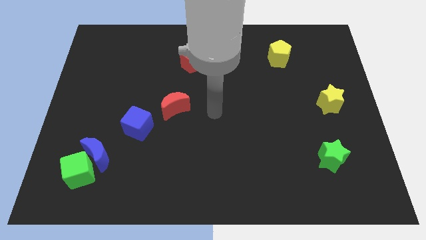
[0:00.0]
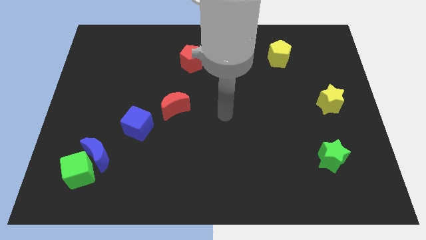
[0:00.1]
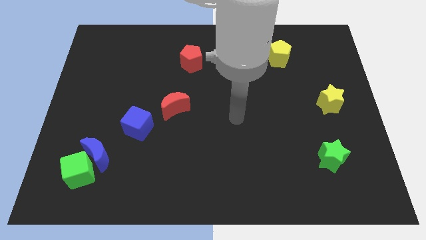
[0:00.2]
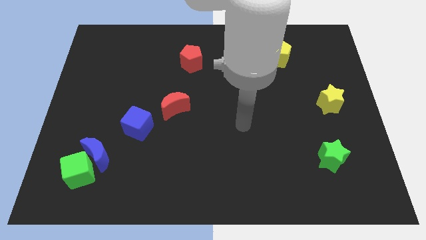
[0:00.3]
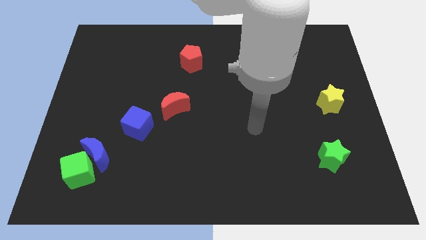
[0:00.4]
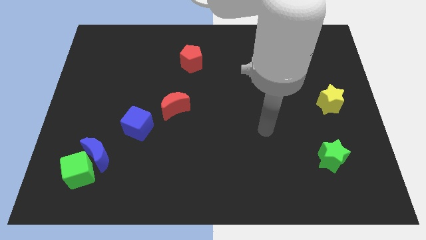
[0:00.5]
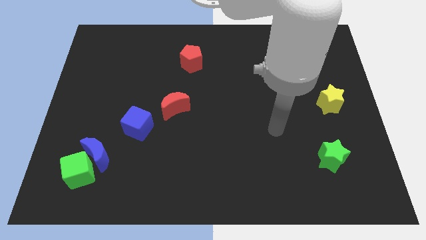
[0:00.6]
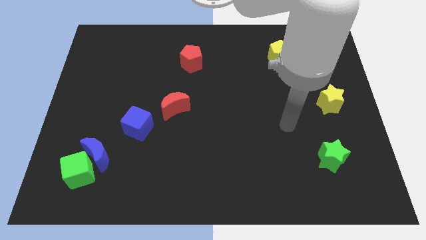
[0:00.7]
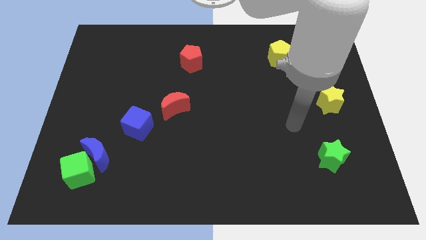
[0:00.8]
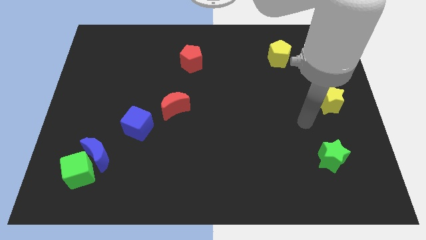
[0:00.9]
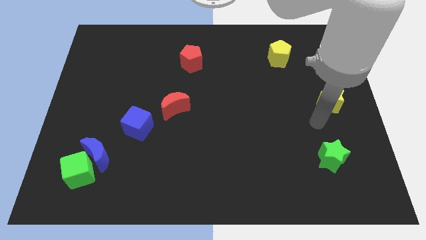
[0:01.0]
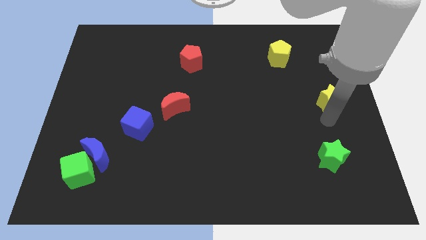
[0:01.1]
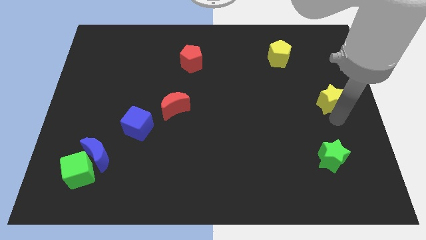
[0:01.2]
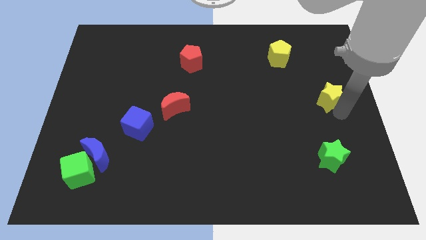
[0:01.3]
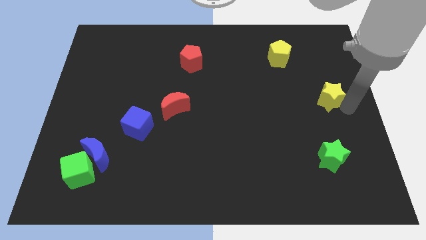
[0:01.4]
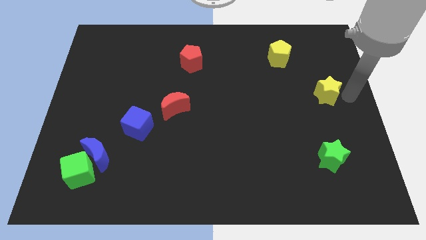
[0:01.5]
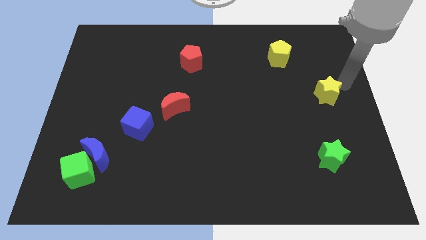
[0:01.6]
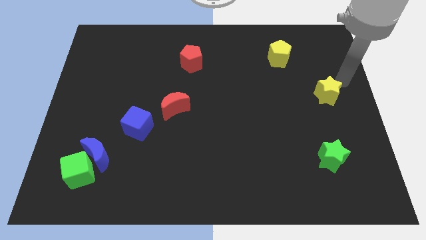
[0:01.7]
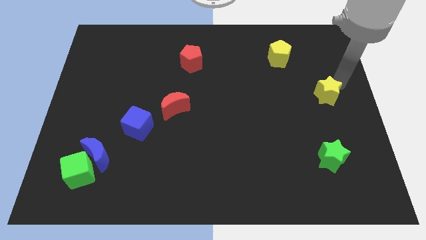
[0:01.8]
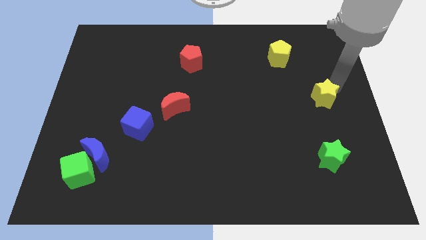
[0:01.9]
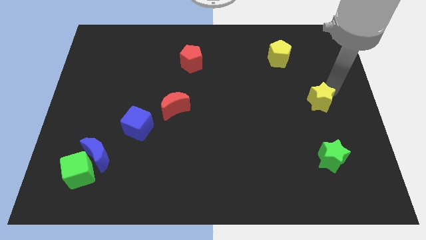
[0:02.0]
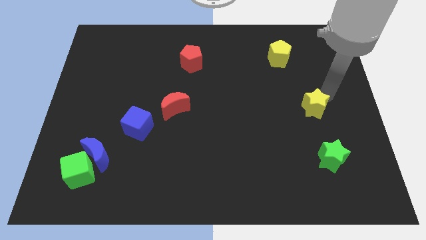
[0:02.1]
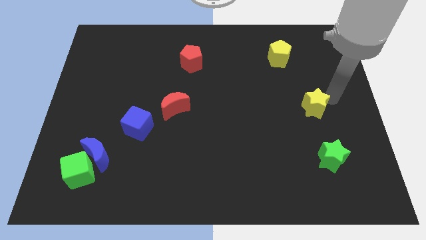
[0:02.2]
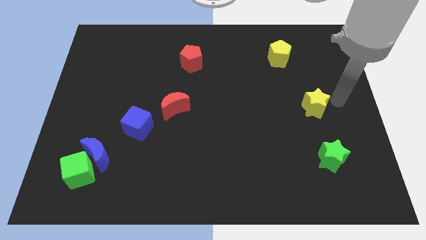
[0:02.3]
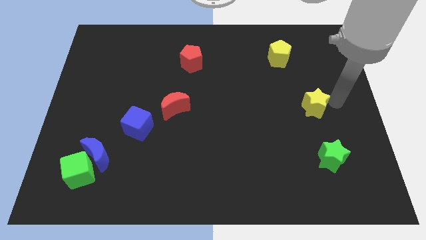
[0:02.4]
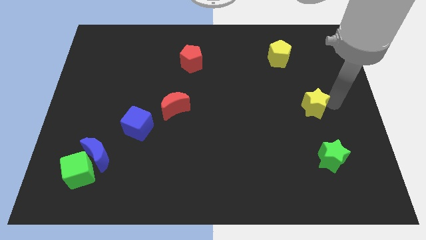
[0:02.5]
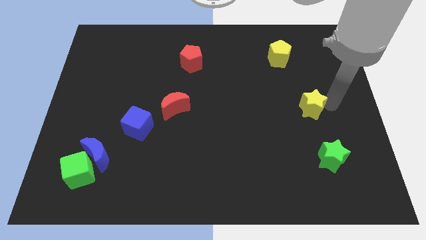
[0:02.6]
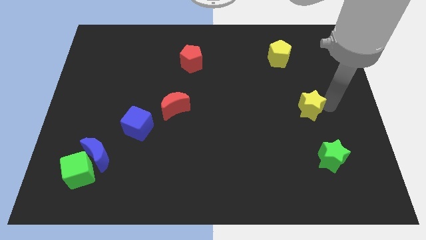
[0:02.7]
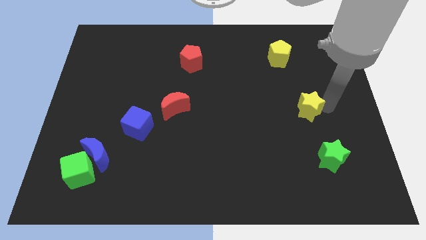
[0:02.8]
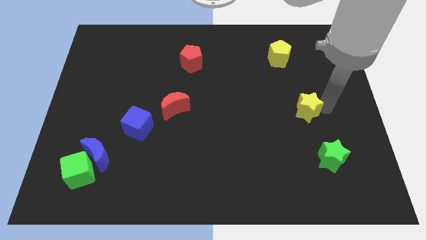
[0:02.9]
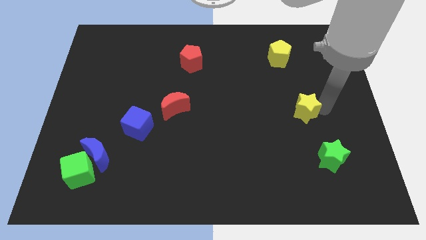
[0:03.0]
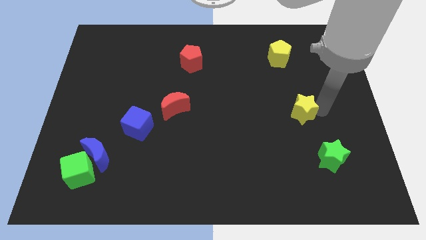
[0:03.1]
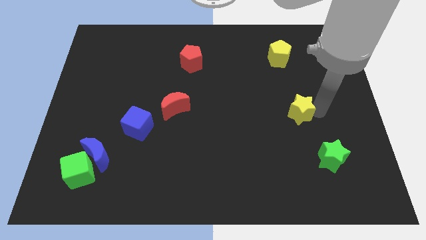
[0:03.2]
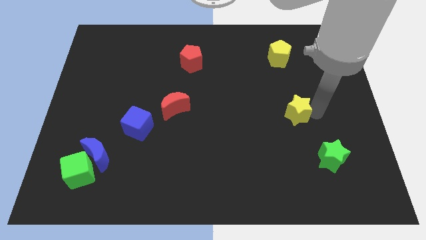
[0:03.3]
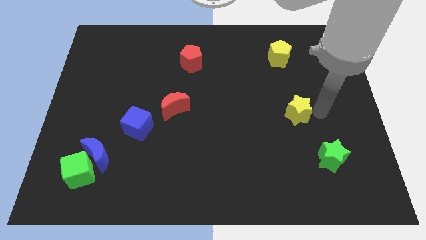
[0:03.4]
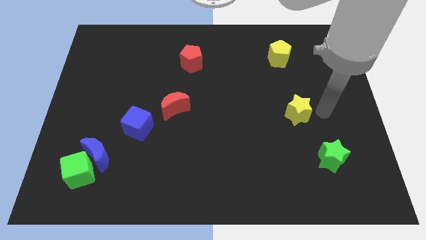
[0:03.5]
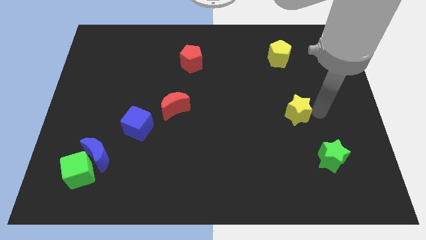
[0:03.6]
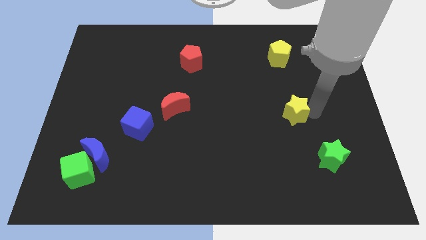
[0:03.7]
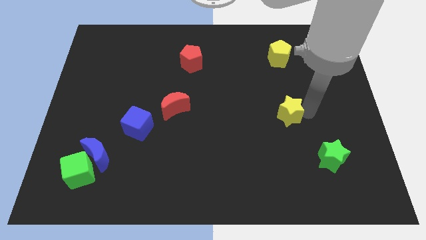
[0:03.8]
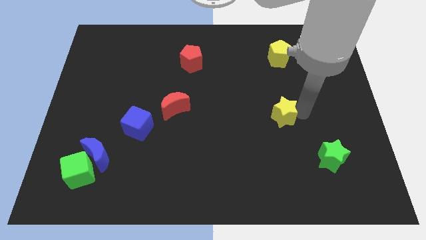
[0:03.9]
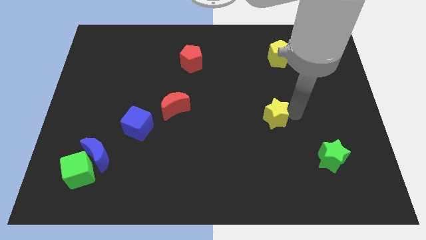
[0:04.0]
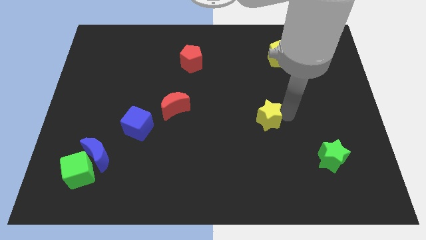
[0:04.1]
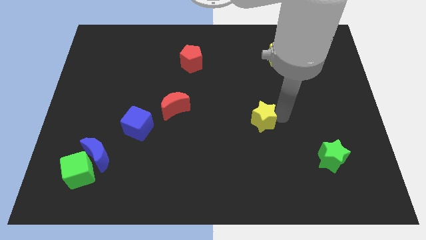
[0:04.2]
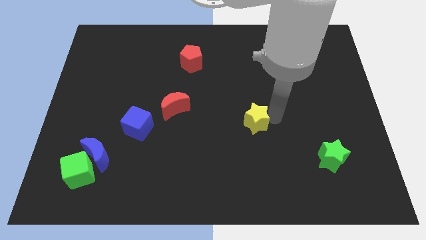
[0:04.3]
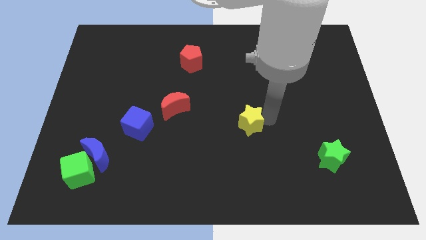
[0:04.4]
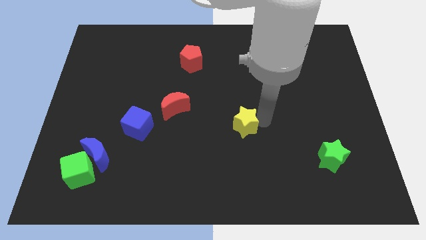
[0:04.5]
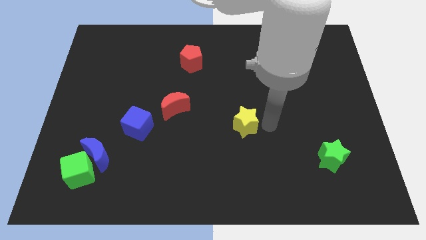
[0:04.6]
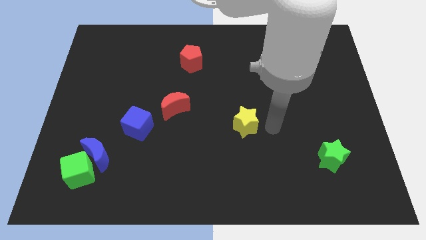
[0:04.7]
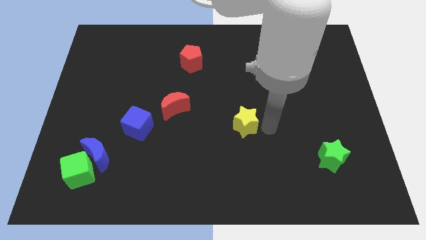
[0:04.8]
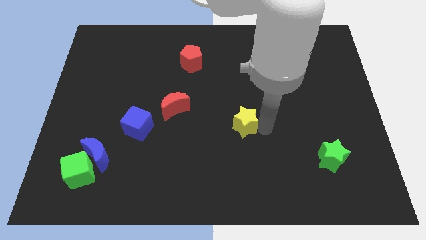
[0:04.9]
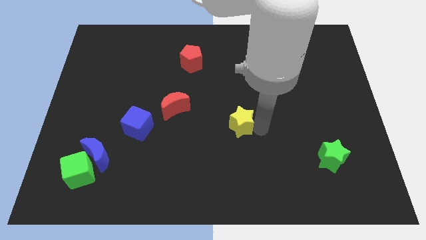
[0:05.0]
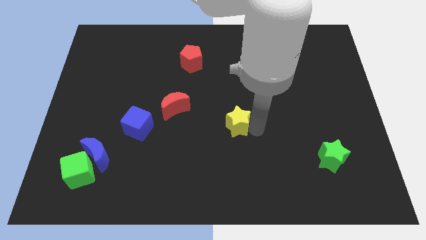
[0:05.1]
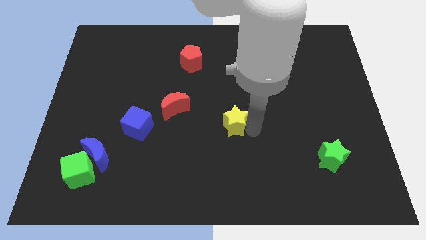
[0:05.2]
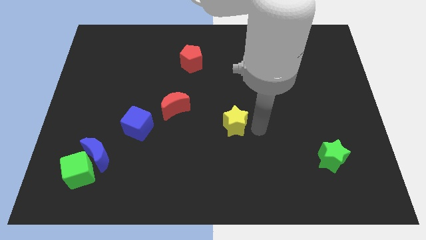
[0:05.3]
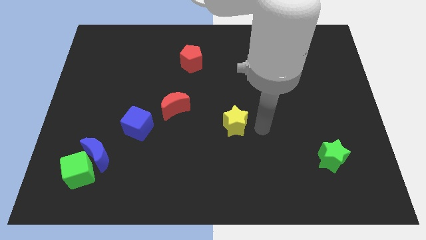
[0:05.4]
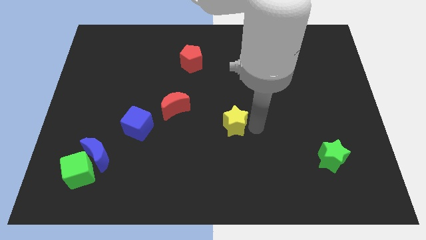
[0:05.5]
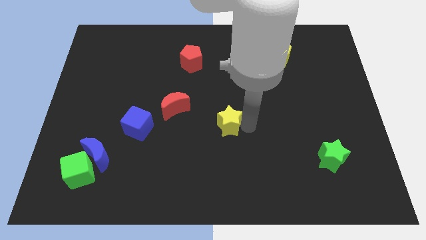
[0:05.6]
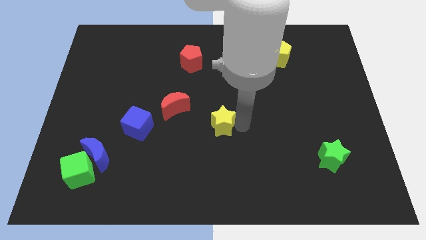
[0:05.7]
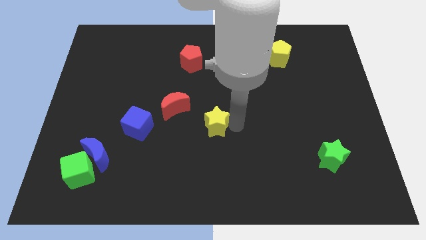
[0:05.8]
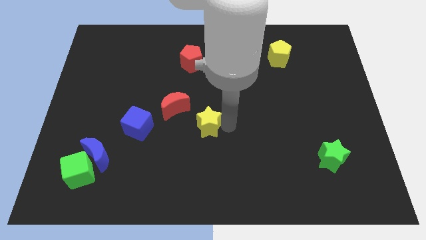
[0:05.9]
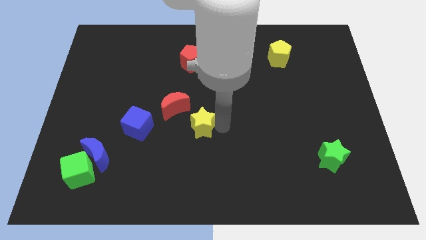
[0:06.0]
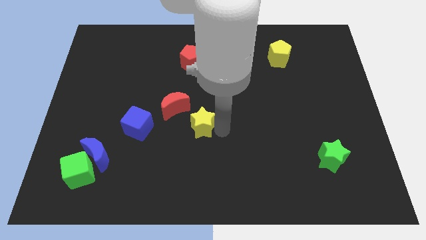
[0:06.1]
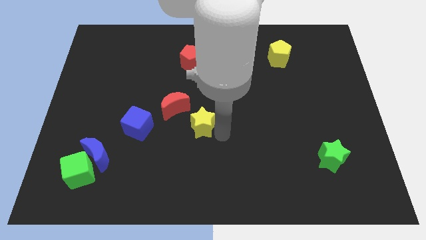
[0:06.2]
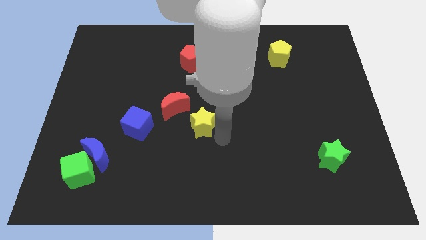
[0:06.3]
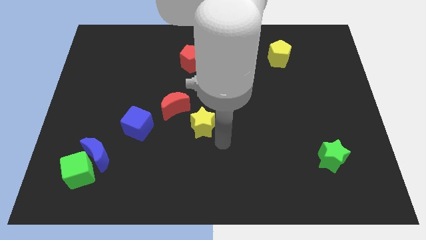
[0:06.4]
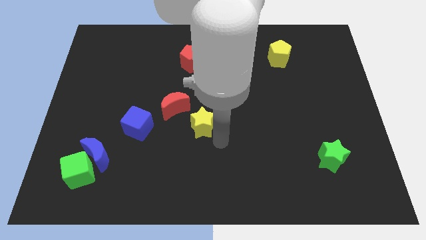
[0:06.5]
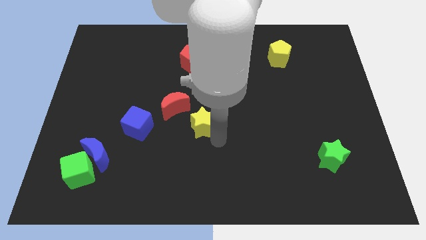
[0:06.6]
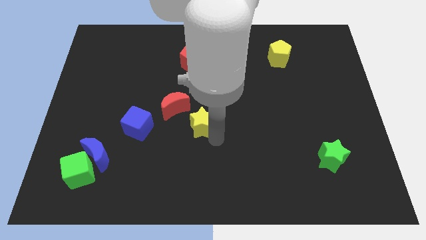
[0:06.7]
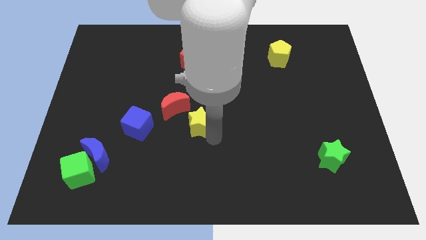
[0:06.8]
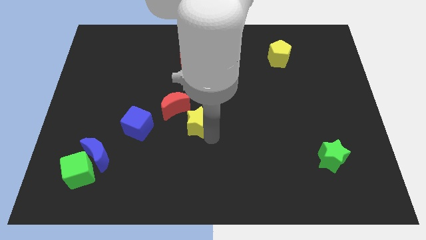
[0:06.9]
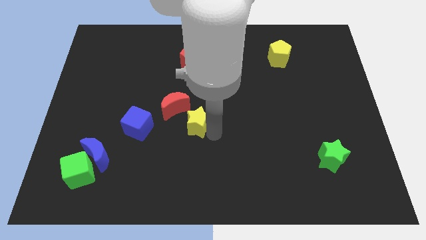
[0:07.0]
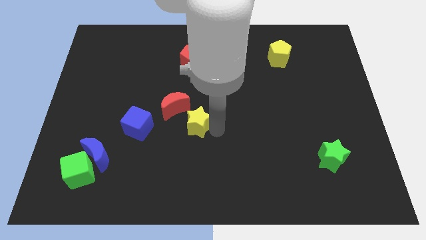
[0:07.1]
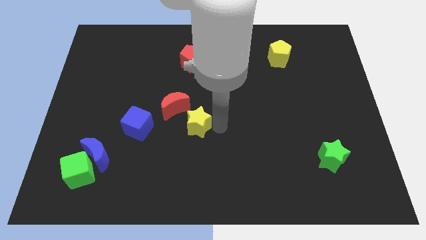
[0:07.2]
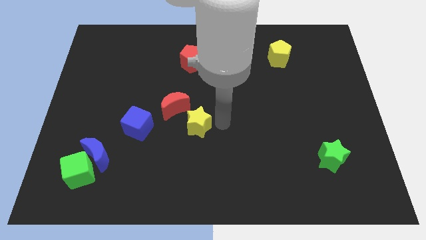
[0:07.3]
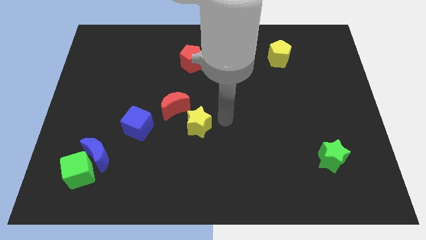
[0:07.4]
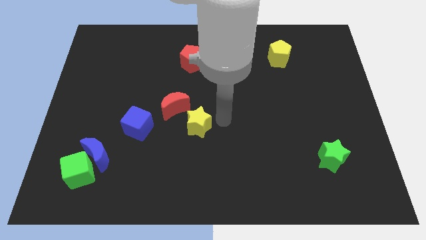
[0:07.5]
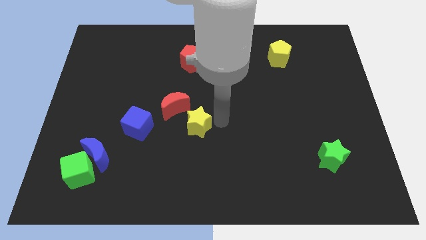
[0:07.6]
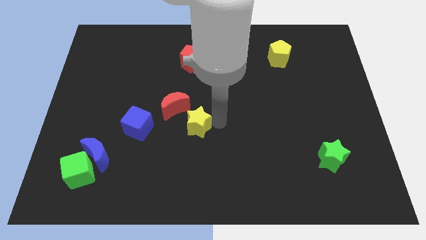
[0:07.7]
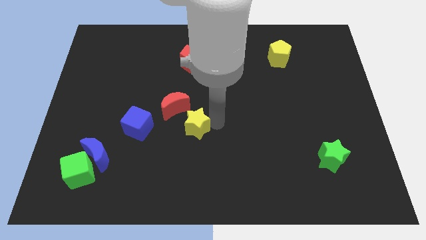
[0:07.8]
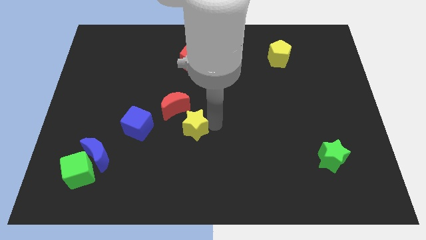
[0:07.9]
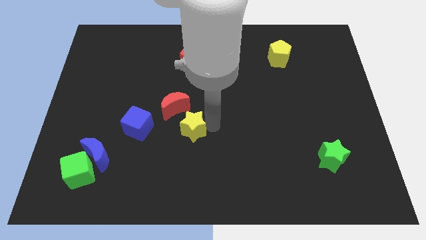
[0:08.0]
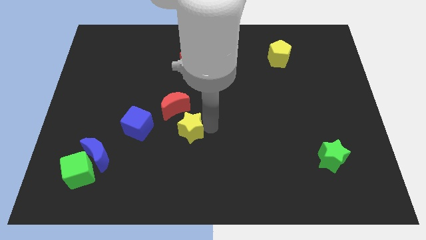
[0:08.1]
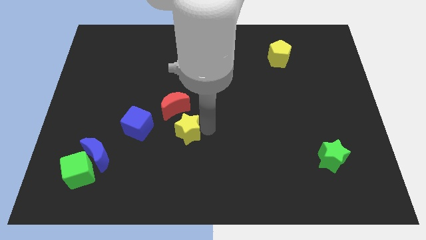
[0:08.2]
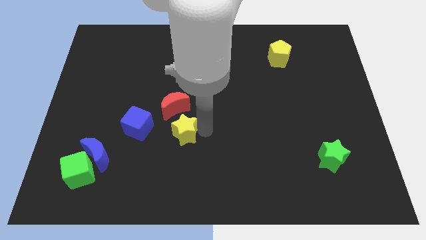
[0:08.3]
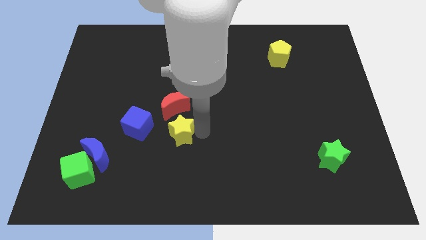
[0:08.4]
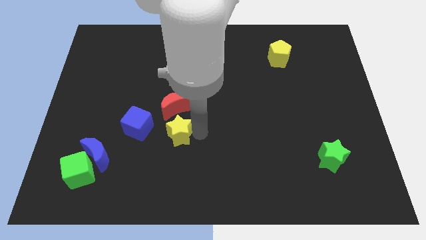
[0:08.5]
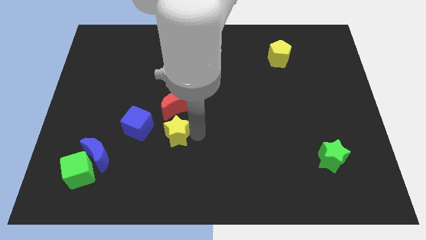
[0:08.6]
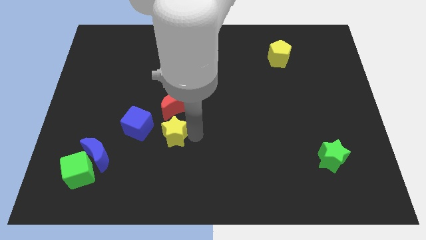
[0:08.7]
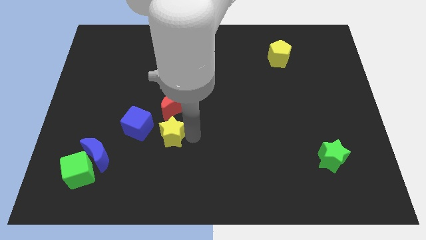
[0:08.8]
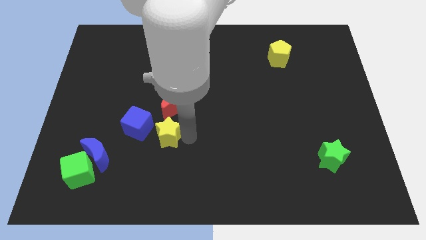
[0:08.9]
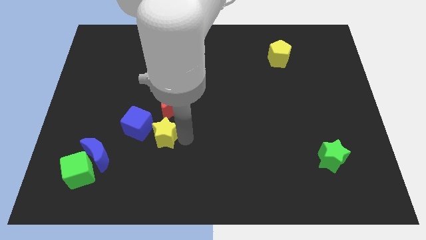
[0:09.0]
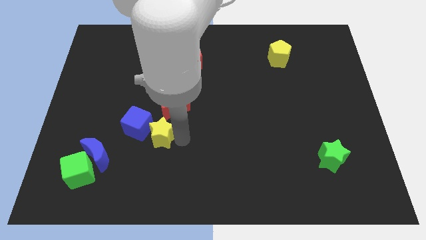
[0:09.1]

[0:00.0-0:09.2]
slide the yellow star next to the blue cube
